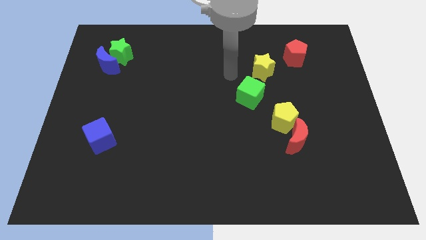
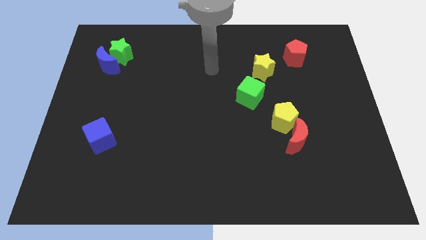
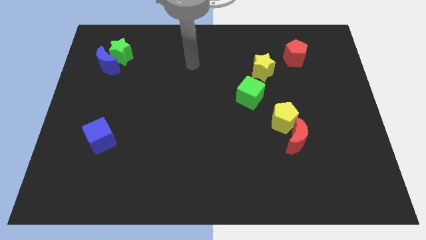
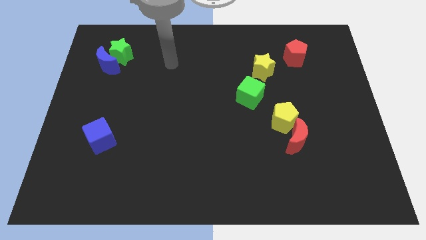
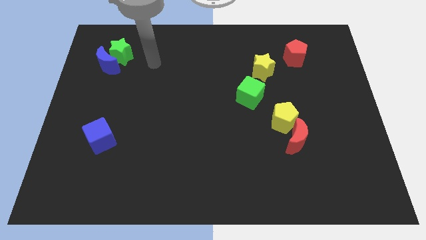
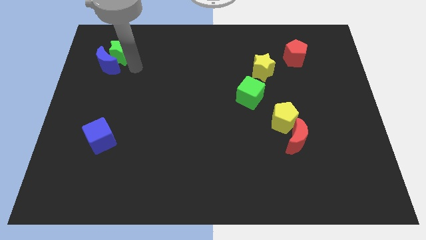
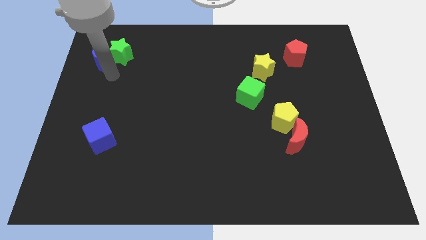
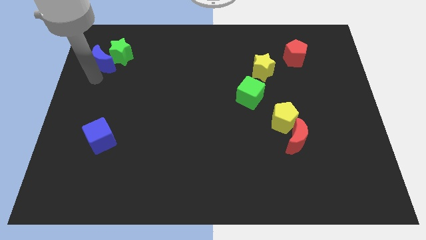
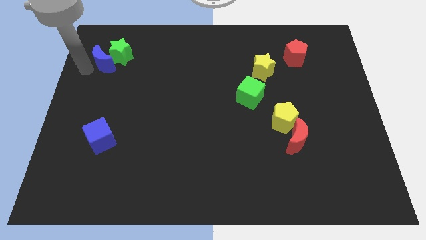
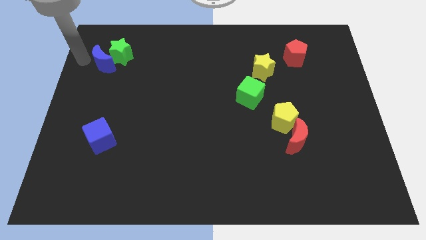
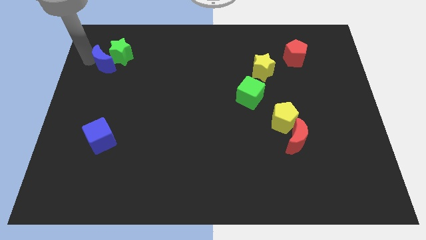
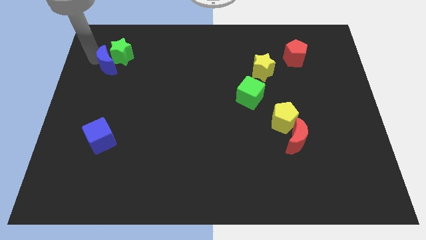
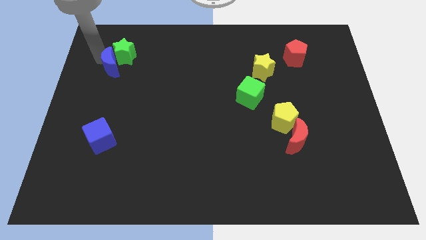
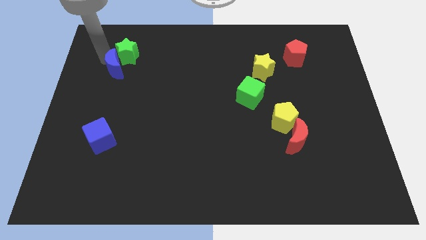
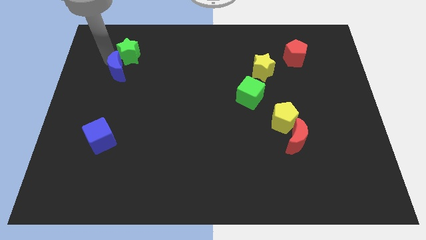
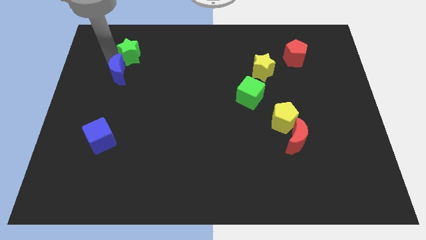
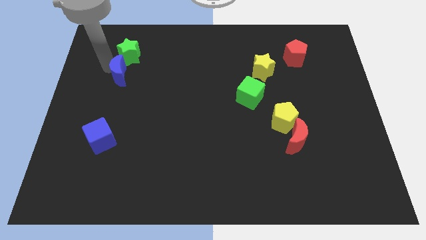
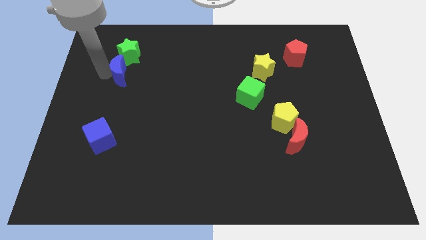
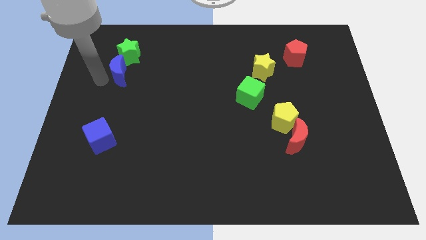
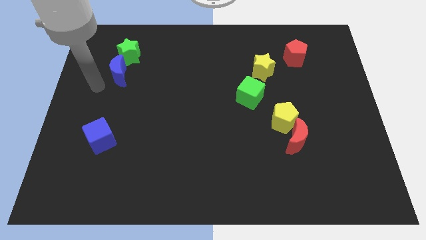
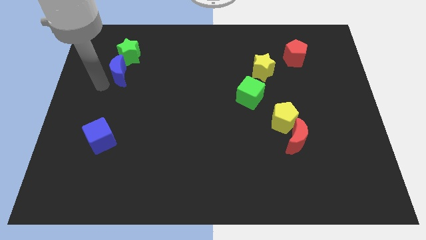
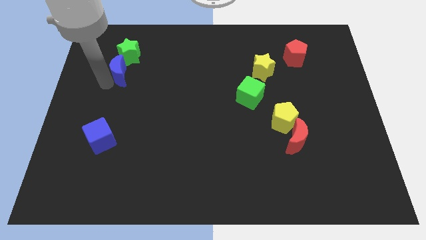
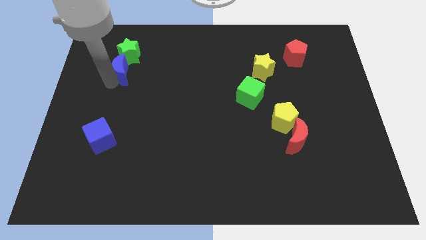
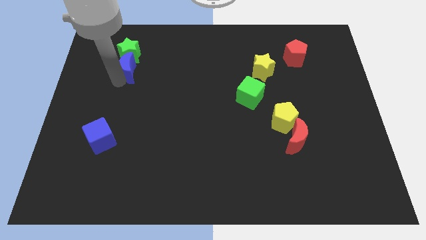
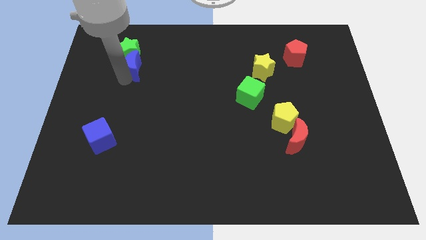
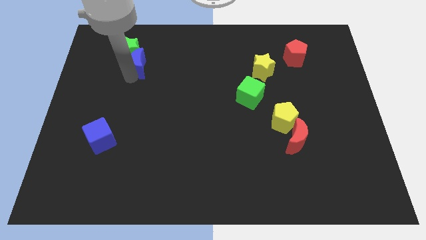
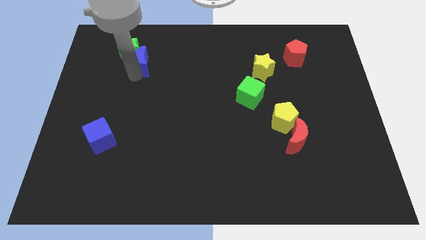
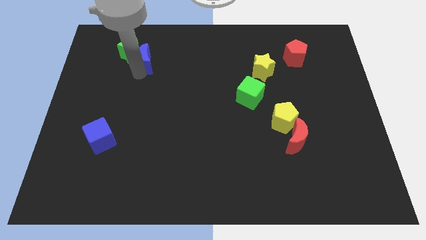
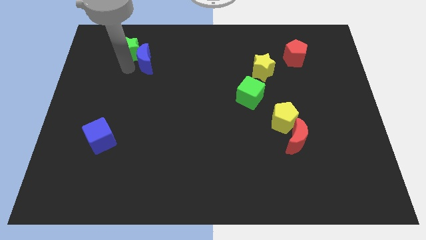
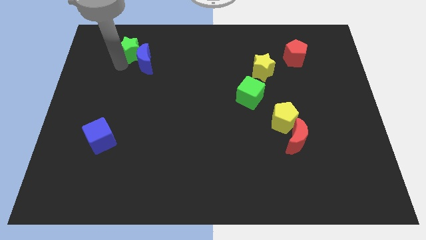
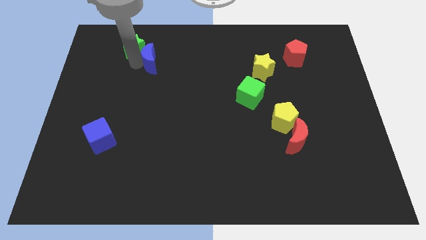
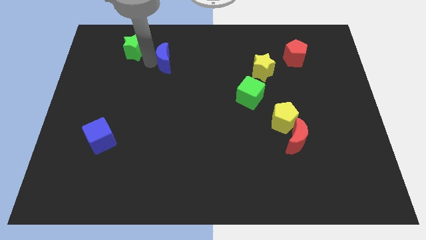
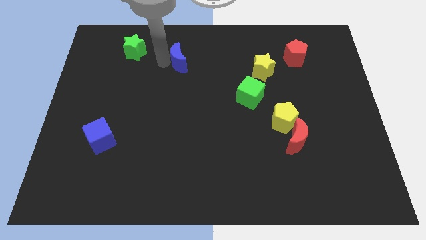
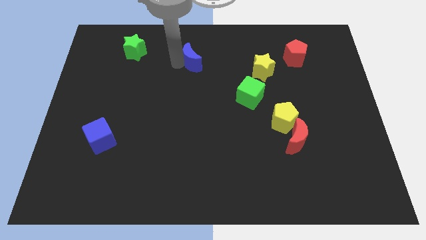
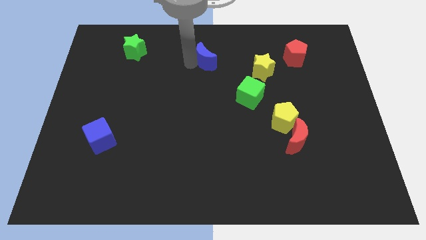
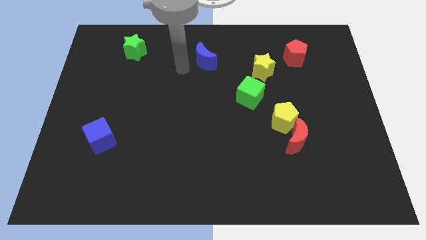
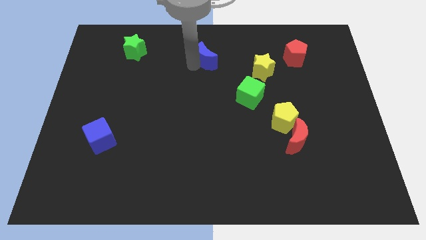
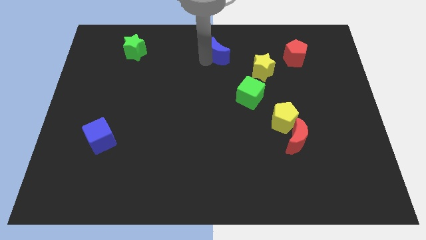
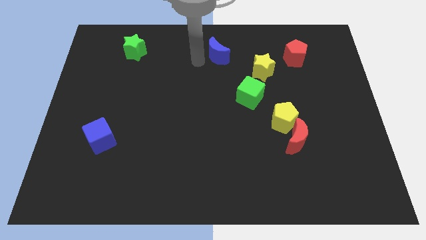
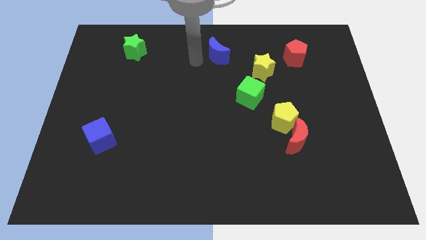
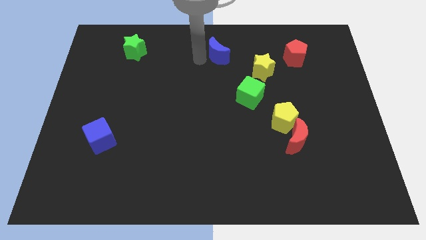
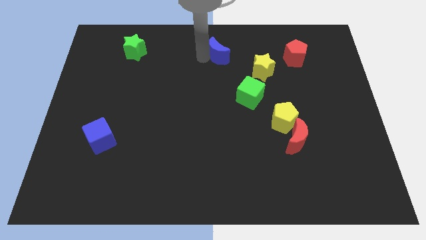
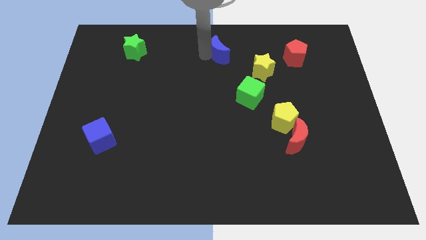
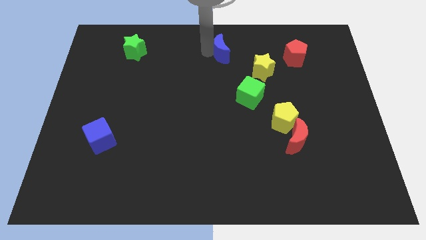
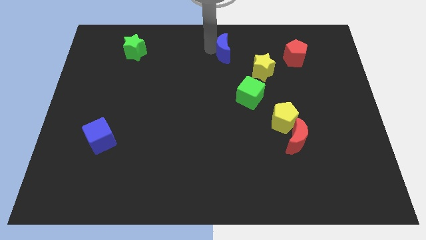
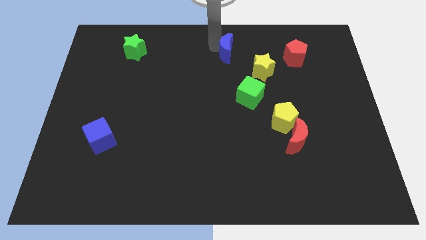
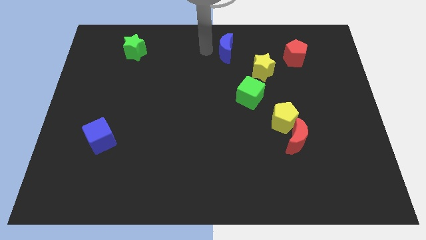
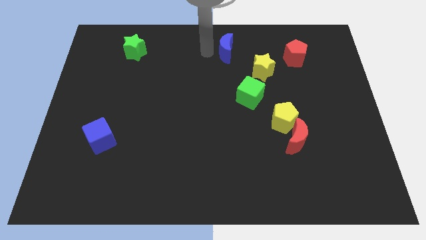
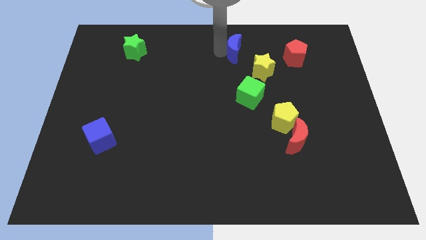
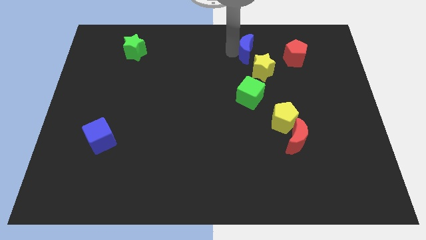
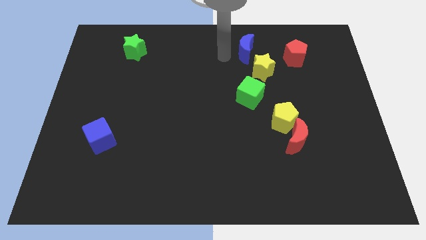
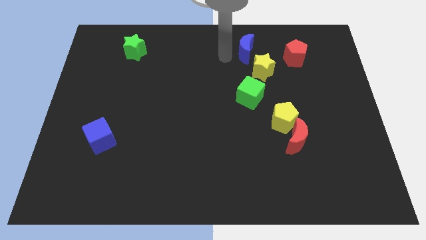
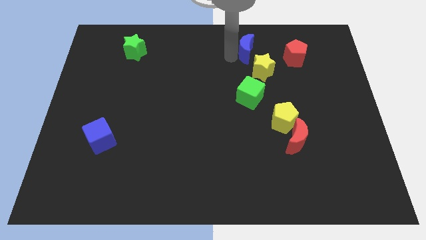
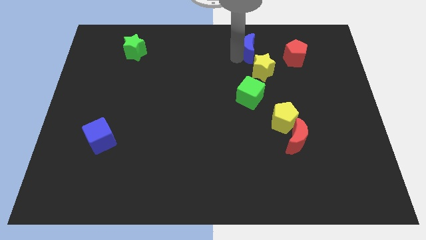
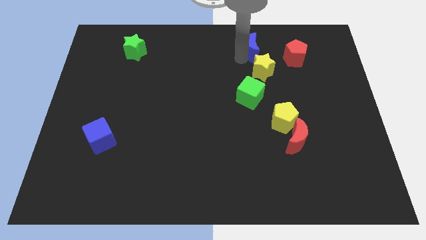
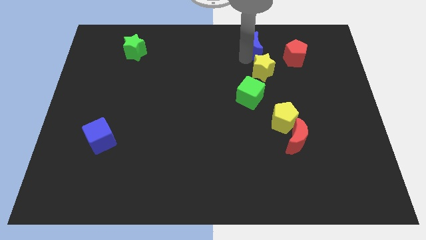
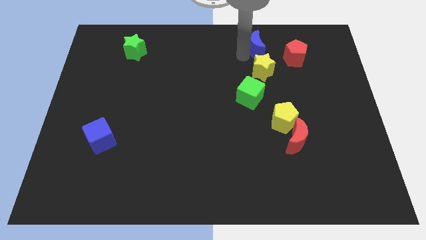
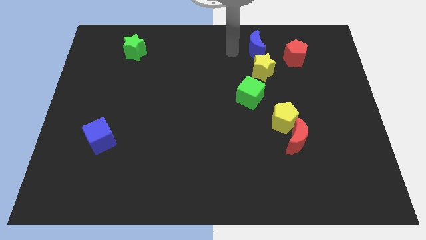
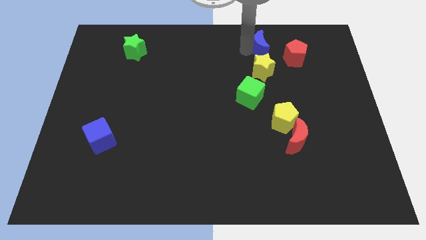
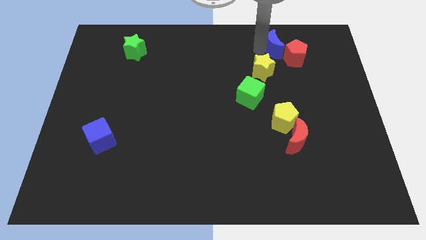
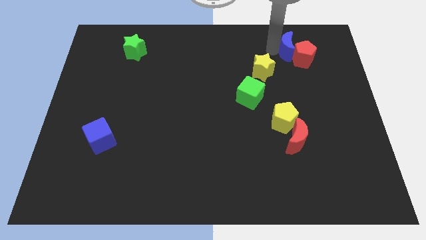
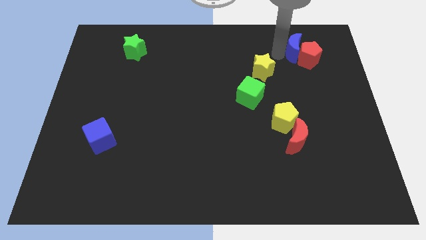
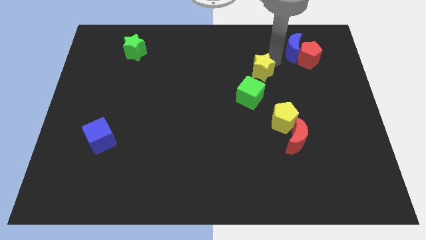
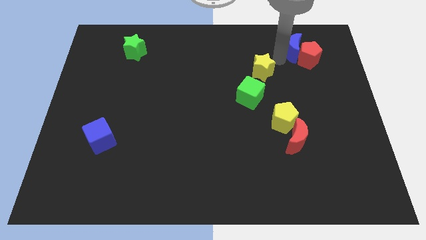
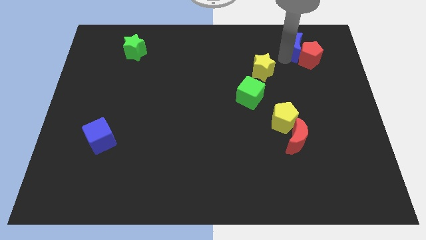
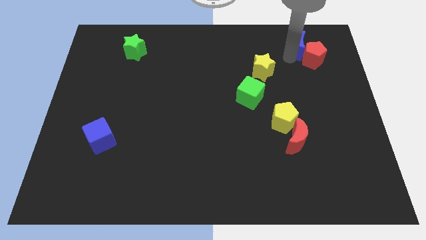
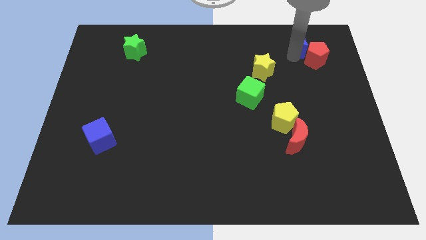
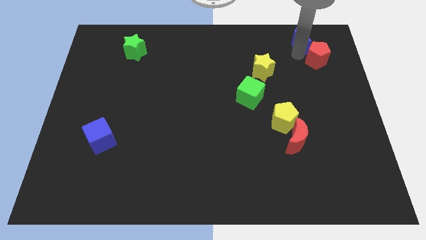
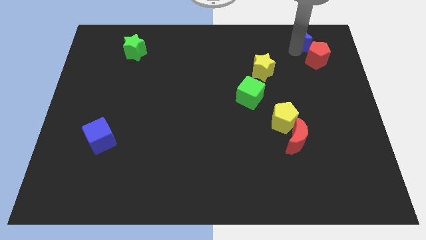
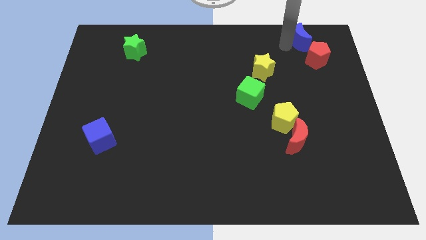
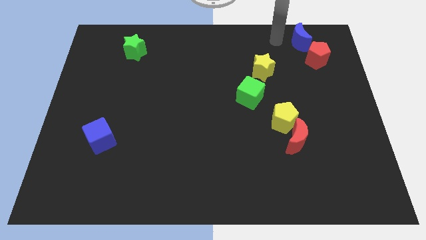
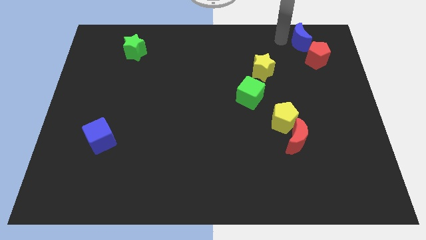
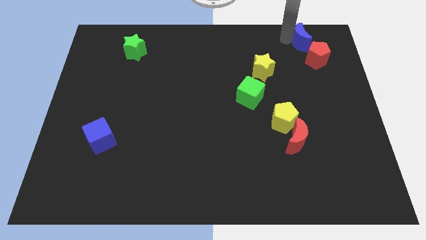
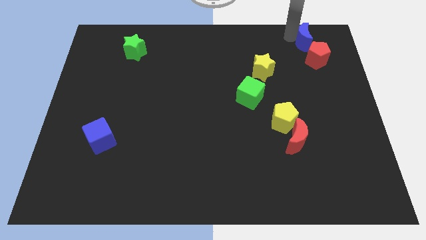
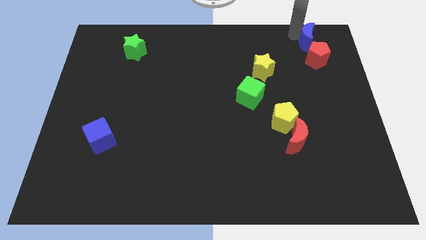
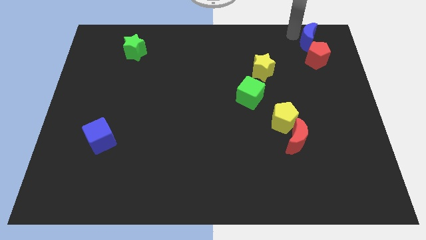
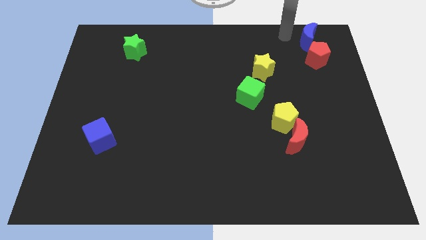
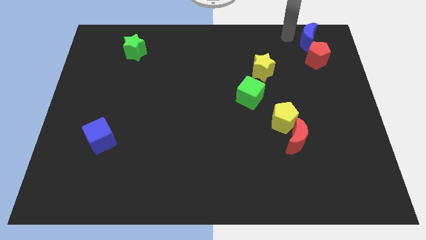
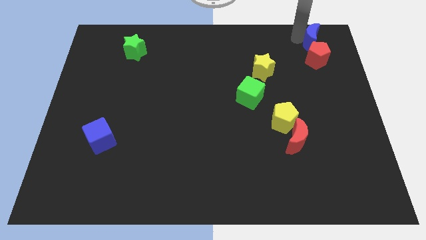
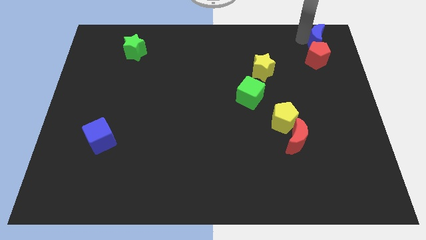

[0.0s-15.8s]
put the blue moon to the top right corner
